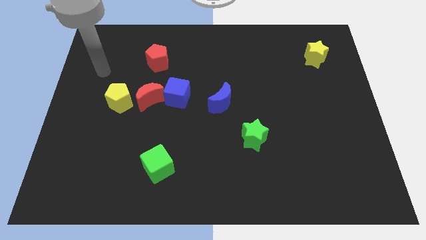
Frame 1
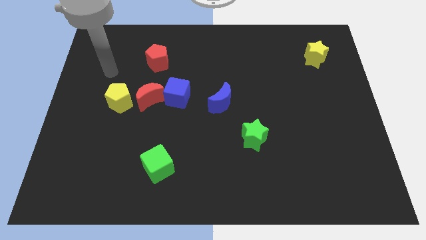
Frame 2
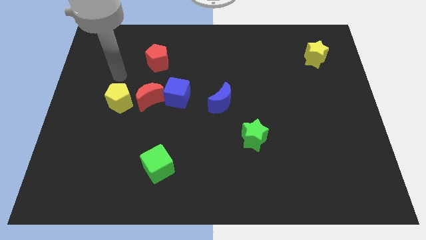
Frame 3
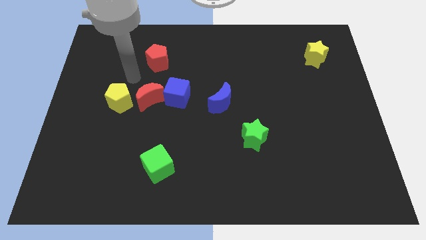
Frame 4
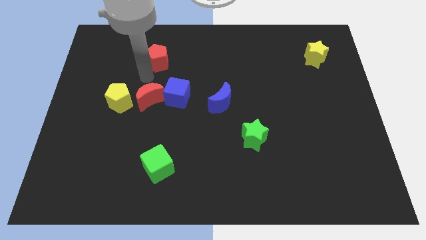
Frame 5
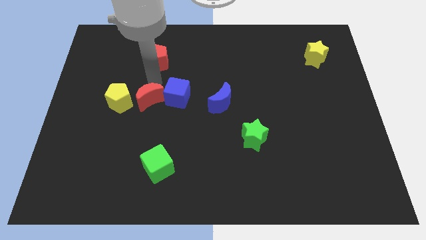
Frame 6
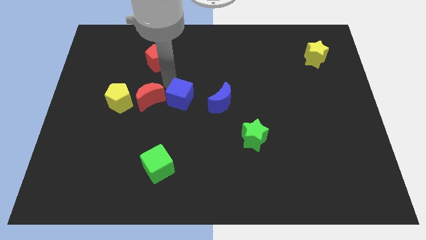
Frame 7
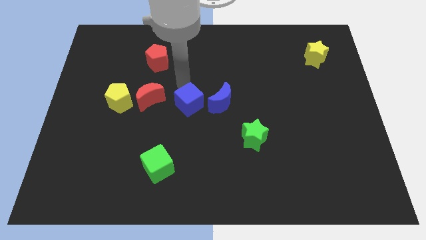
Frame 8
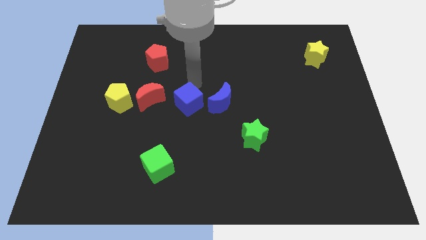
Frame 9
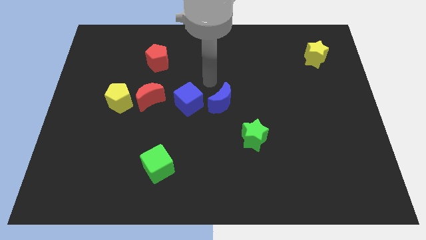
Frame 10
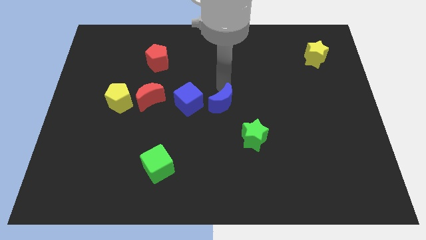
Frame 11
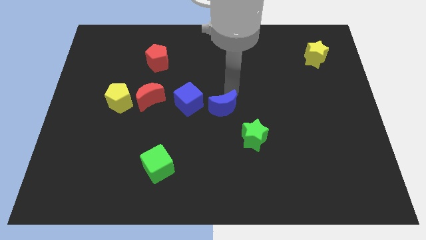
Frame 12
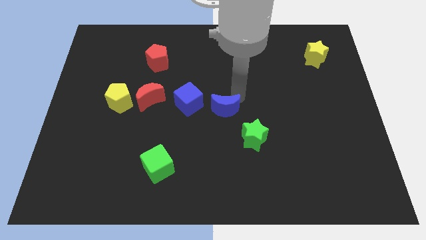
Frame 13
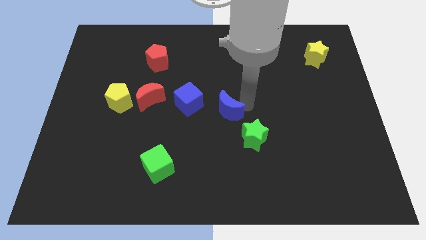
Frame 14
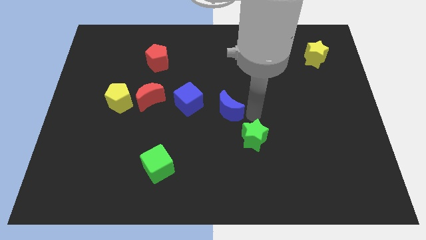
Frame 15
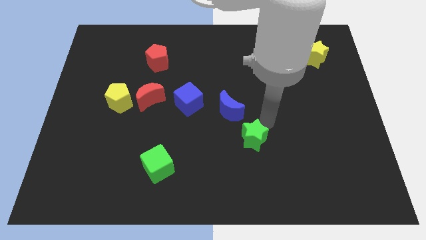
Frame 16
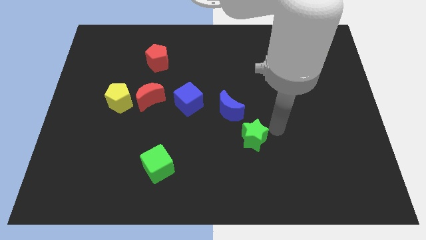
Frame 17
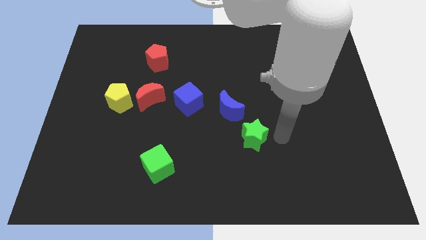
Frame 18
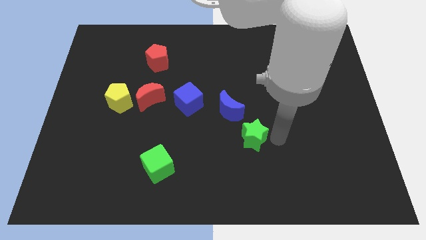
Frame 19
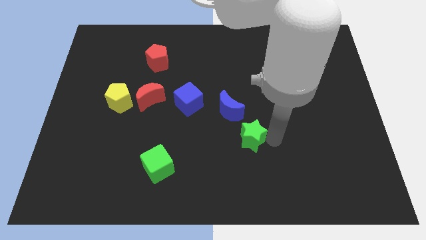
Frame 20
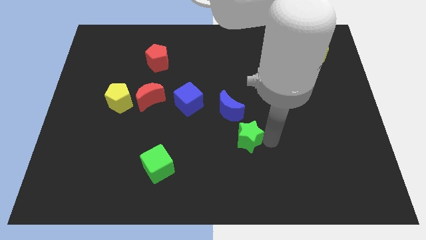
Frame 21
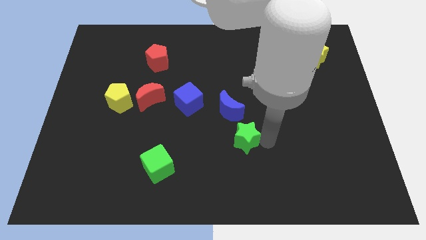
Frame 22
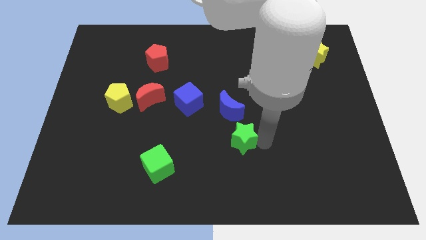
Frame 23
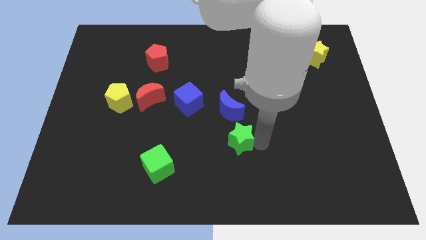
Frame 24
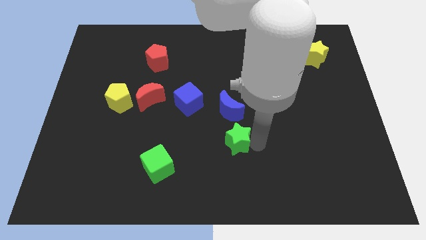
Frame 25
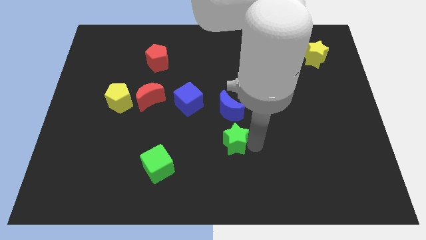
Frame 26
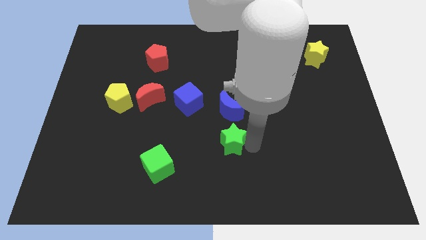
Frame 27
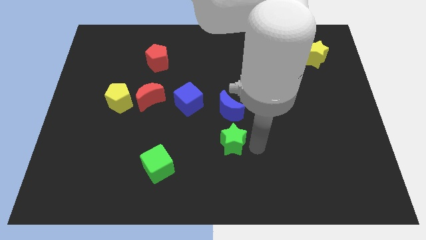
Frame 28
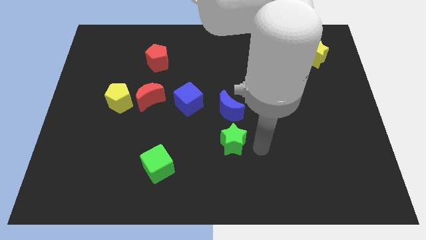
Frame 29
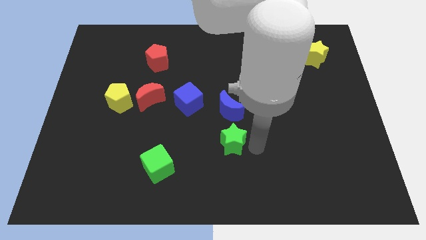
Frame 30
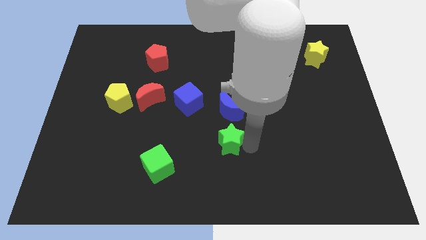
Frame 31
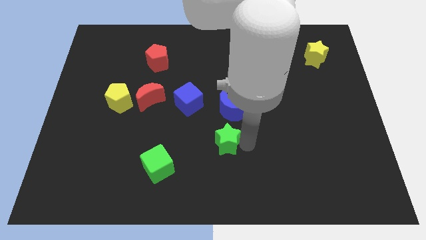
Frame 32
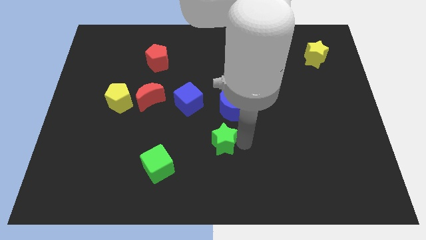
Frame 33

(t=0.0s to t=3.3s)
push the green star to the left a bit

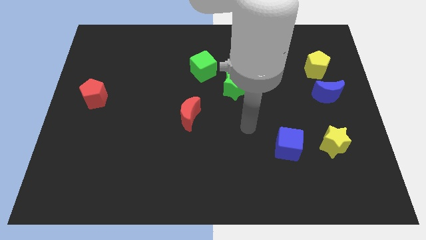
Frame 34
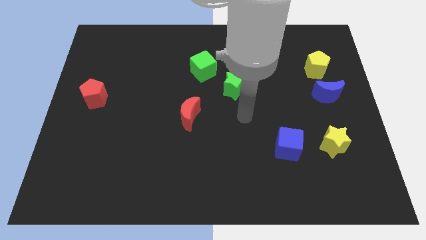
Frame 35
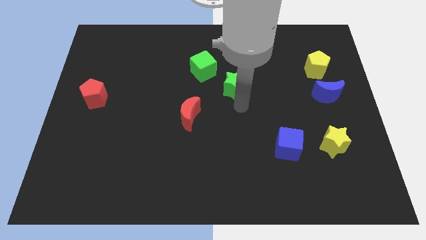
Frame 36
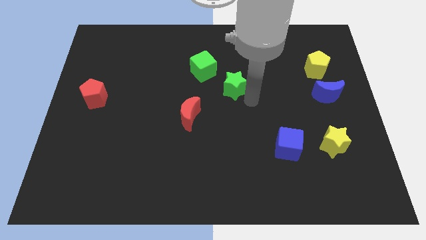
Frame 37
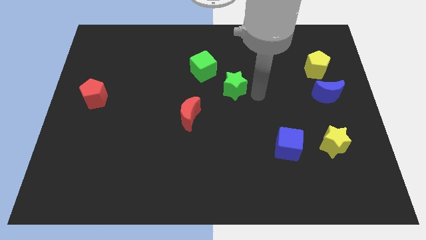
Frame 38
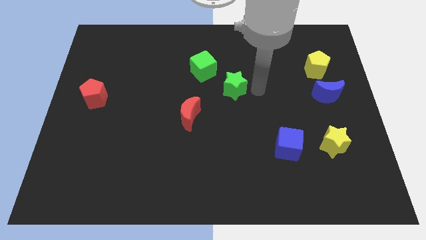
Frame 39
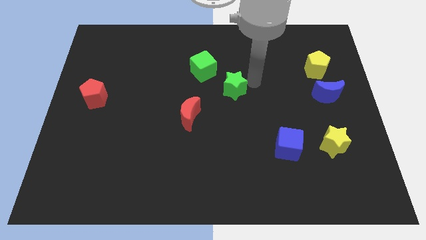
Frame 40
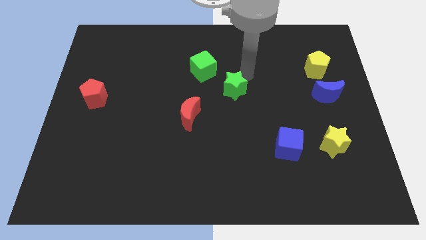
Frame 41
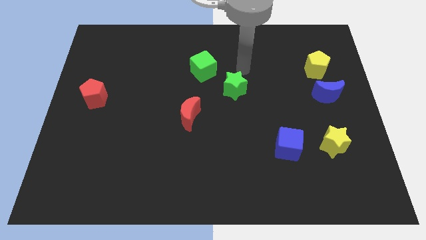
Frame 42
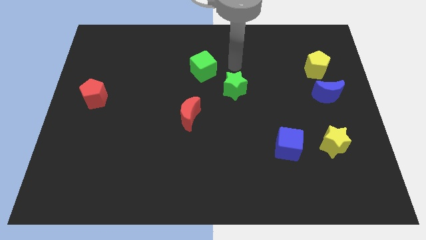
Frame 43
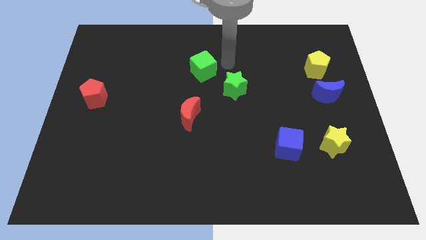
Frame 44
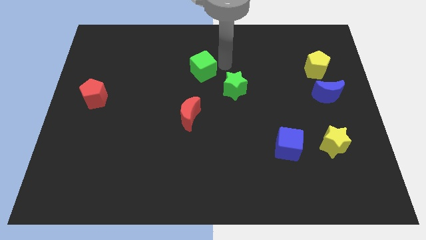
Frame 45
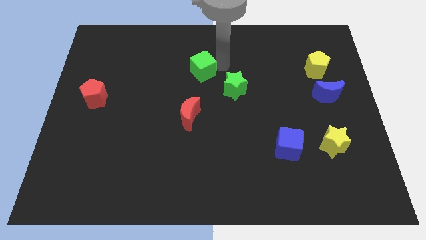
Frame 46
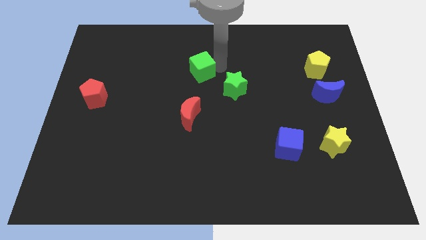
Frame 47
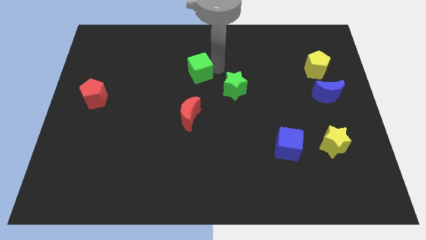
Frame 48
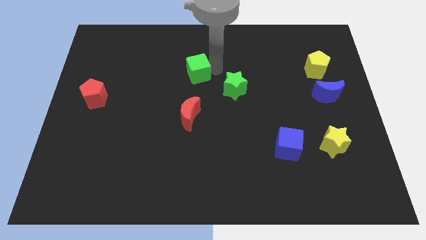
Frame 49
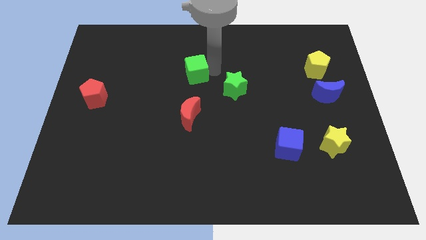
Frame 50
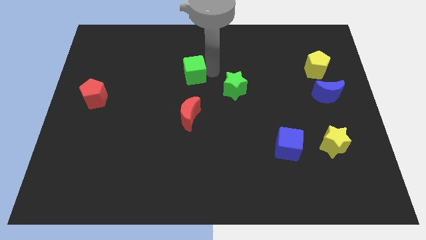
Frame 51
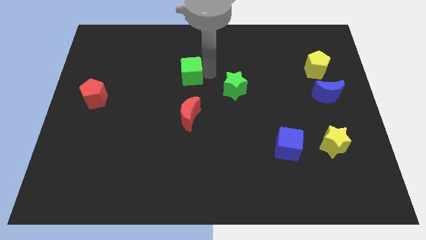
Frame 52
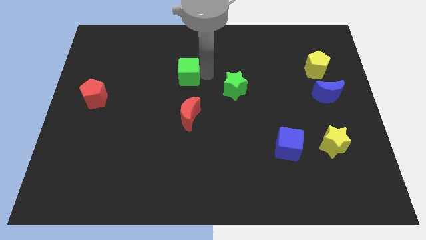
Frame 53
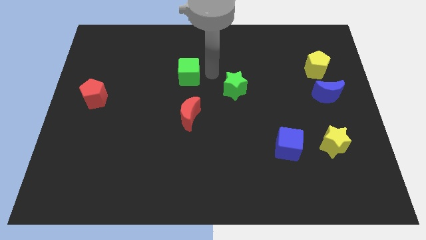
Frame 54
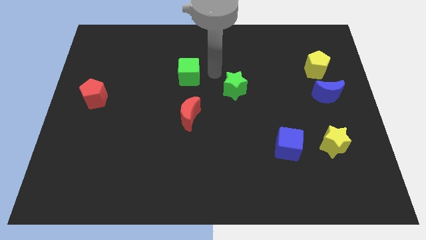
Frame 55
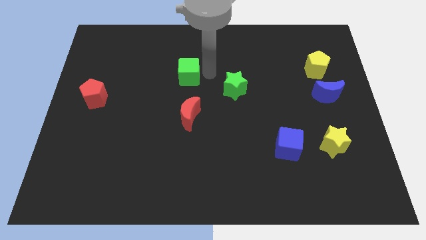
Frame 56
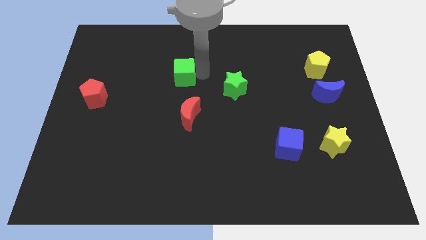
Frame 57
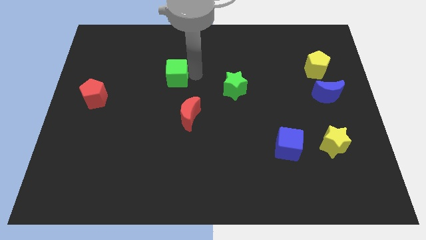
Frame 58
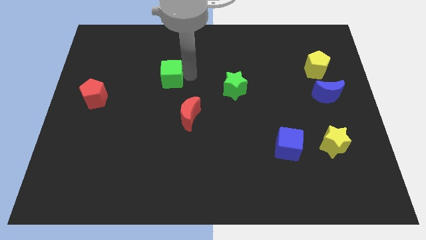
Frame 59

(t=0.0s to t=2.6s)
slightly move the green cube left

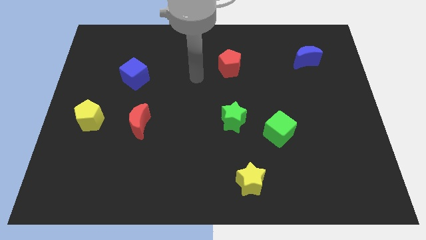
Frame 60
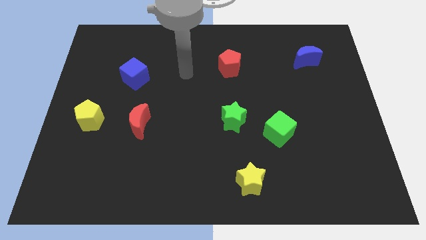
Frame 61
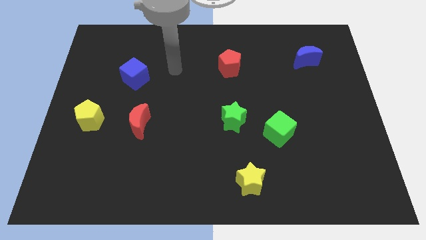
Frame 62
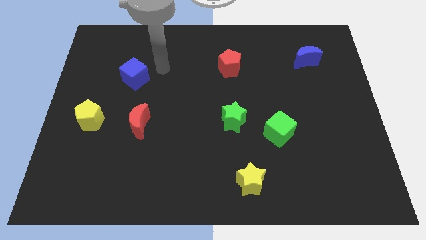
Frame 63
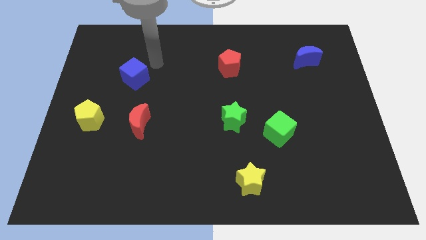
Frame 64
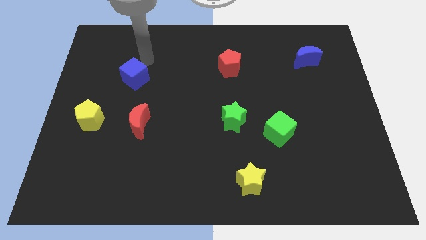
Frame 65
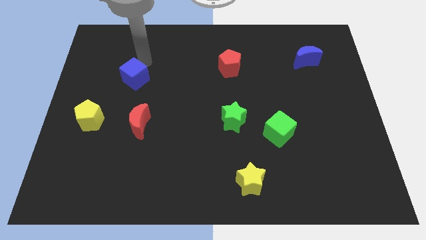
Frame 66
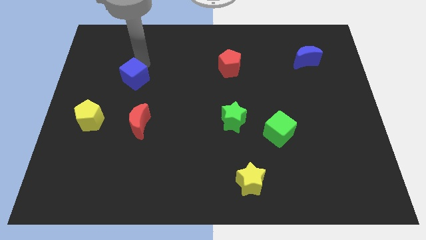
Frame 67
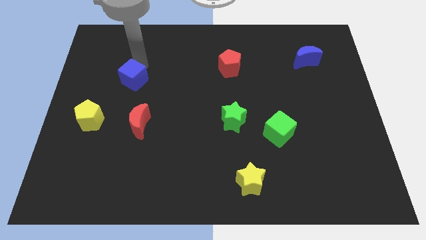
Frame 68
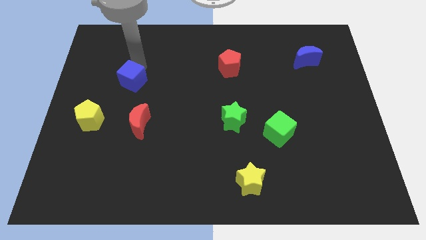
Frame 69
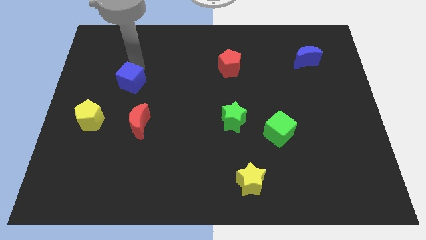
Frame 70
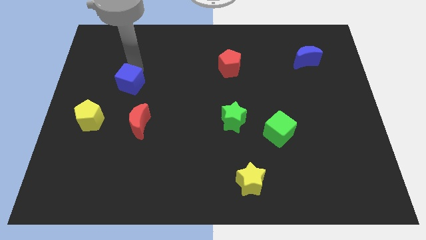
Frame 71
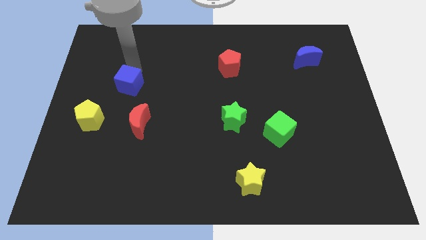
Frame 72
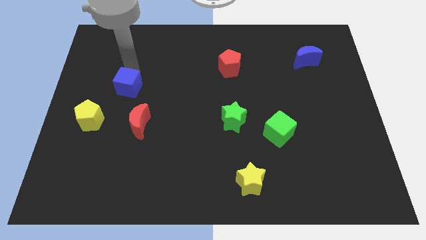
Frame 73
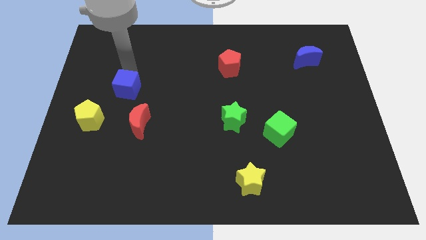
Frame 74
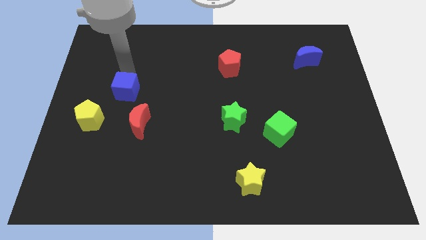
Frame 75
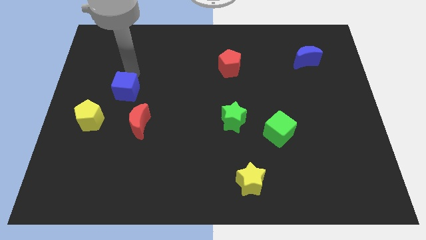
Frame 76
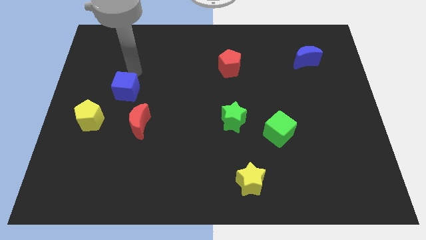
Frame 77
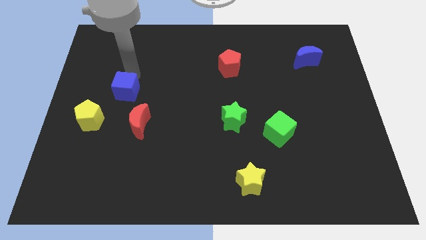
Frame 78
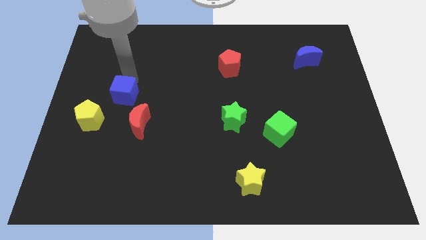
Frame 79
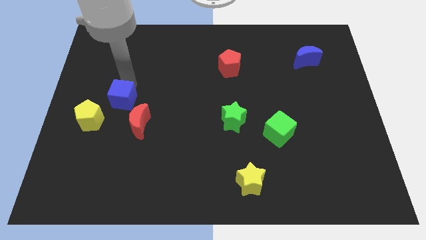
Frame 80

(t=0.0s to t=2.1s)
push the blue cube downwards somewhat
